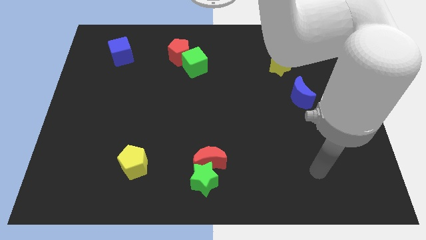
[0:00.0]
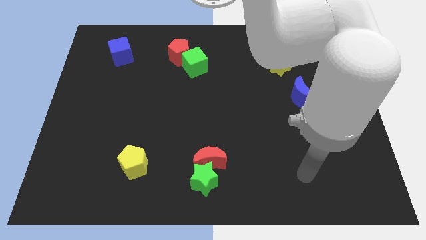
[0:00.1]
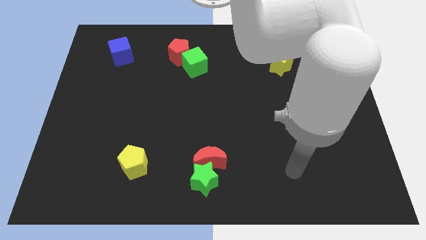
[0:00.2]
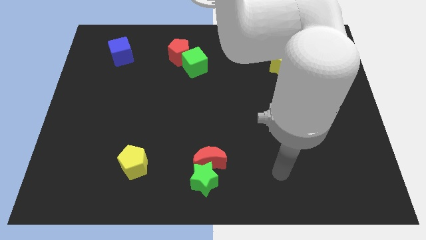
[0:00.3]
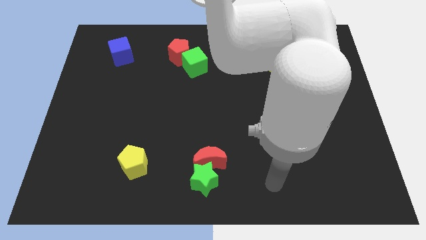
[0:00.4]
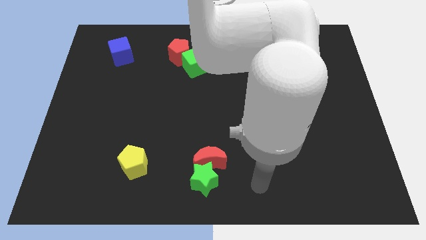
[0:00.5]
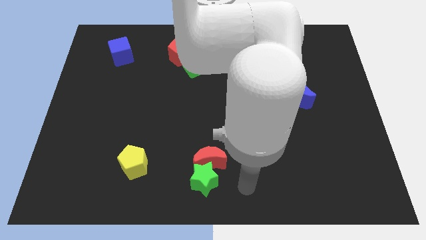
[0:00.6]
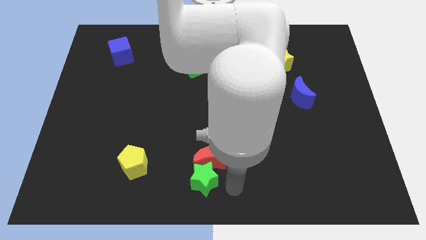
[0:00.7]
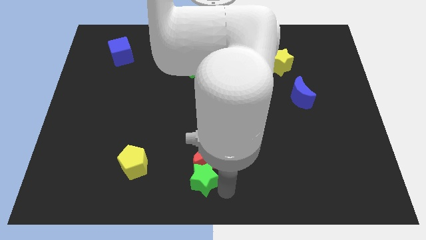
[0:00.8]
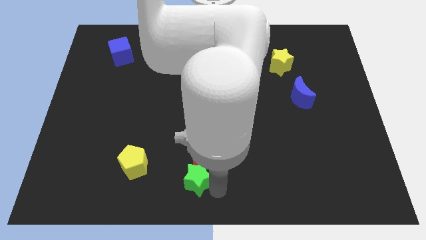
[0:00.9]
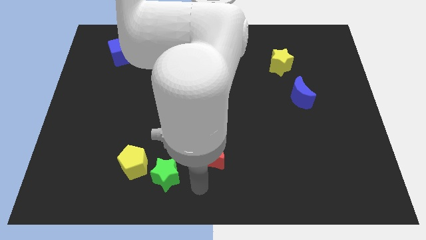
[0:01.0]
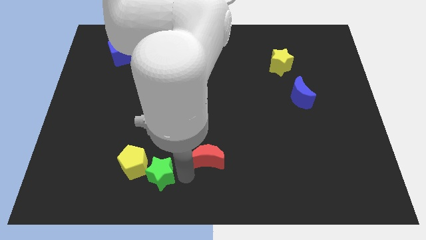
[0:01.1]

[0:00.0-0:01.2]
move the red moon away from the green star

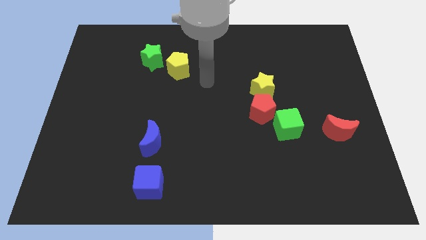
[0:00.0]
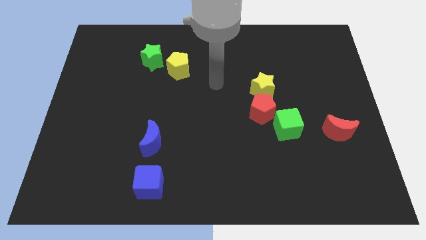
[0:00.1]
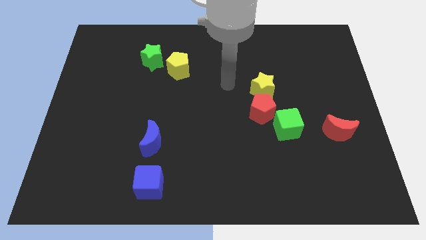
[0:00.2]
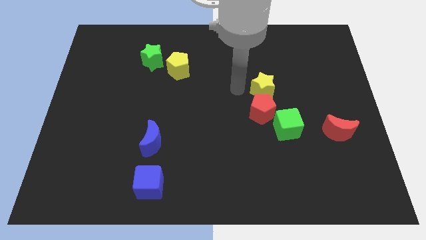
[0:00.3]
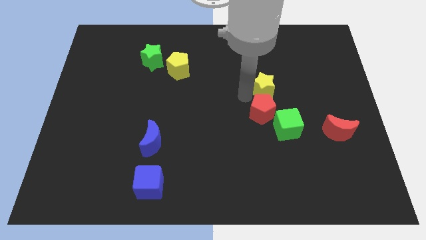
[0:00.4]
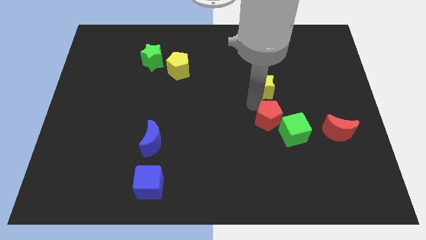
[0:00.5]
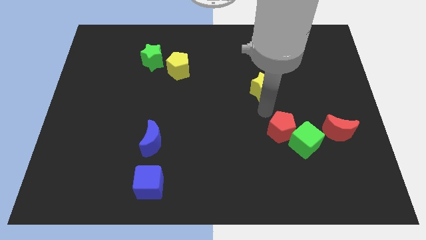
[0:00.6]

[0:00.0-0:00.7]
separate the yellow star from the red pentagon

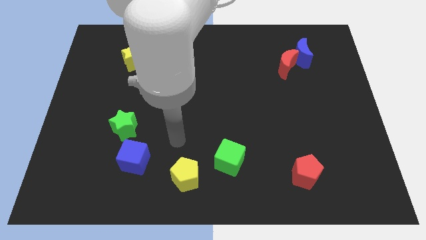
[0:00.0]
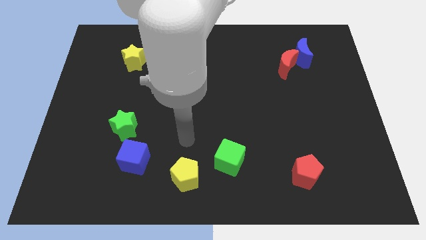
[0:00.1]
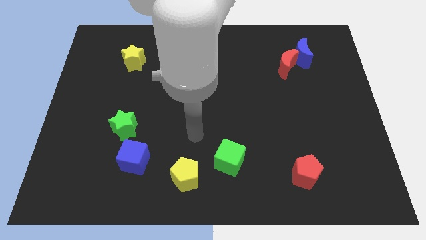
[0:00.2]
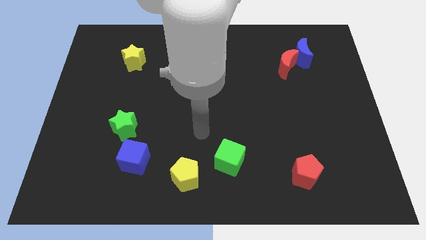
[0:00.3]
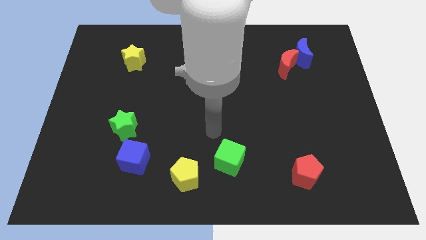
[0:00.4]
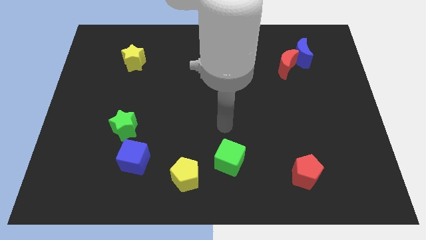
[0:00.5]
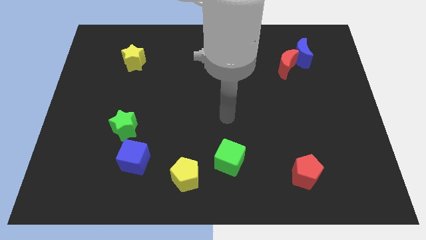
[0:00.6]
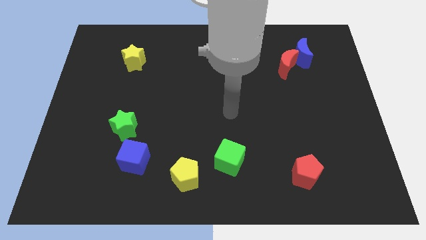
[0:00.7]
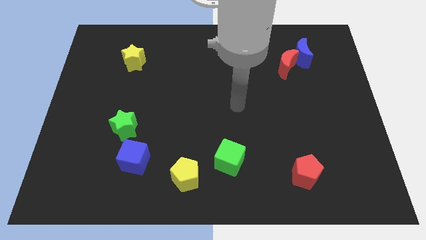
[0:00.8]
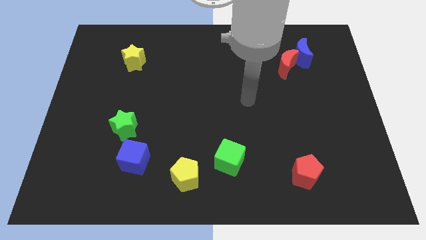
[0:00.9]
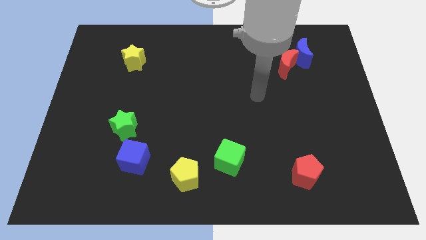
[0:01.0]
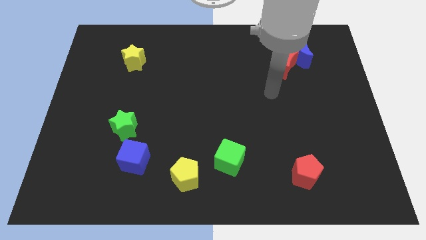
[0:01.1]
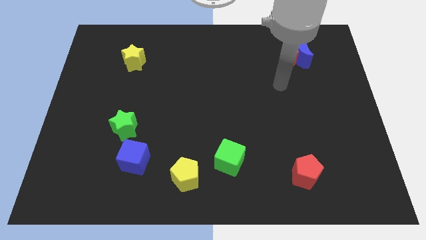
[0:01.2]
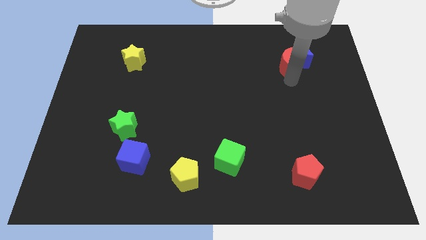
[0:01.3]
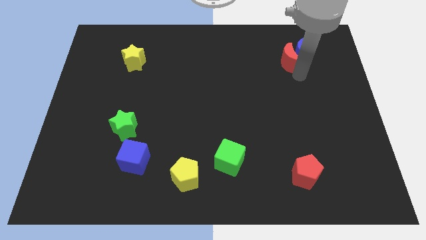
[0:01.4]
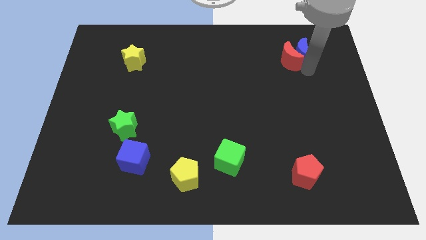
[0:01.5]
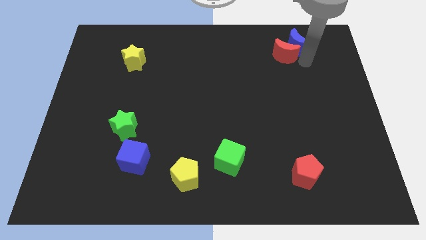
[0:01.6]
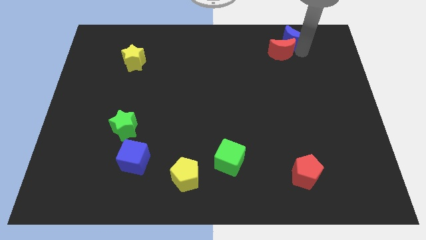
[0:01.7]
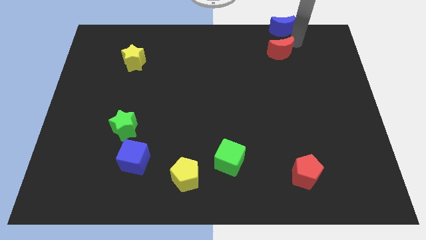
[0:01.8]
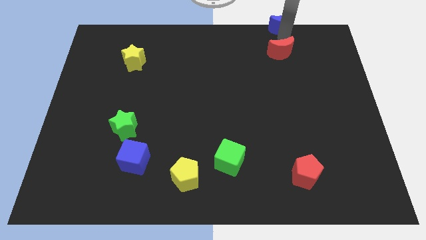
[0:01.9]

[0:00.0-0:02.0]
move the red moon away from the blue moon

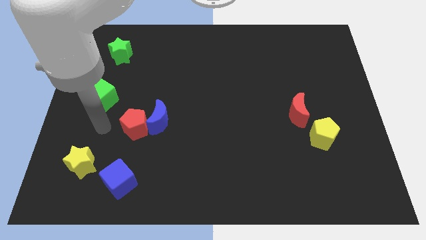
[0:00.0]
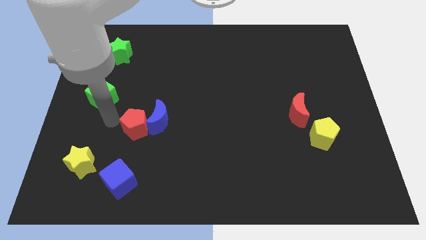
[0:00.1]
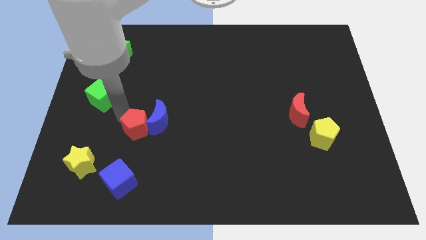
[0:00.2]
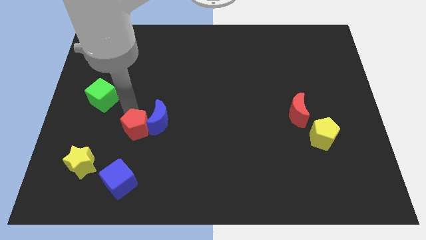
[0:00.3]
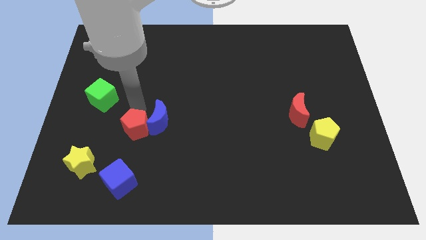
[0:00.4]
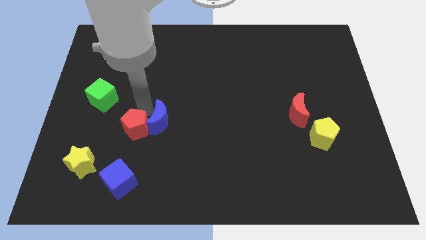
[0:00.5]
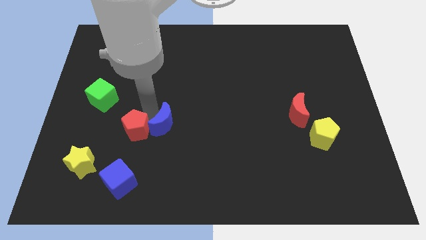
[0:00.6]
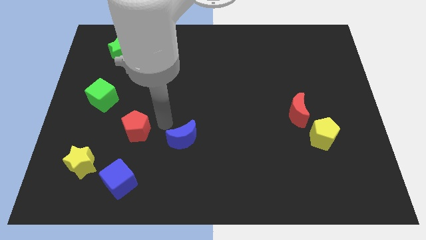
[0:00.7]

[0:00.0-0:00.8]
pull the red pentagon apart from the blue moon

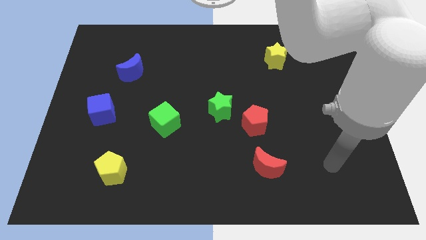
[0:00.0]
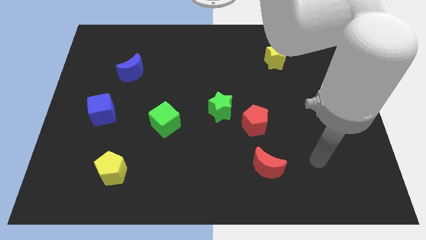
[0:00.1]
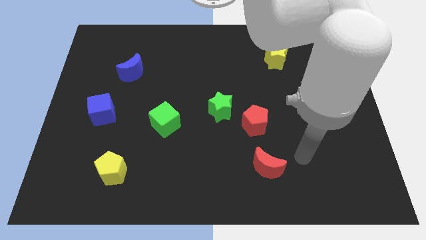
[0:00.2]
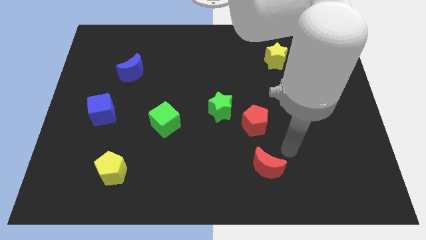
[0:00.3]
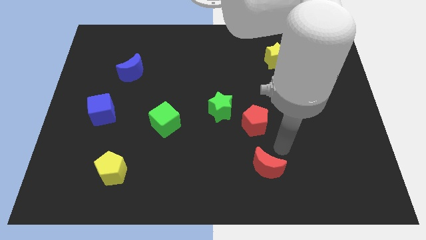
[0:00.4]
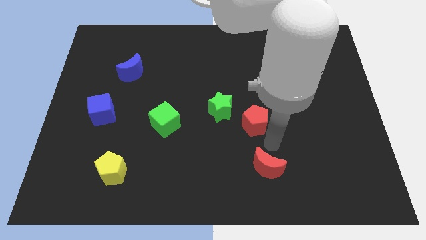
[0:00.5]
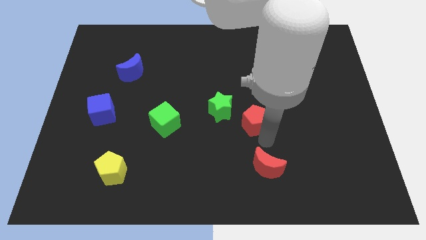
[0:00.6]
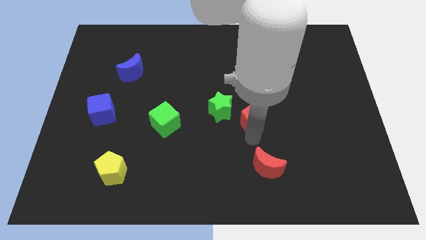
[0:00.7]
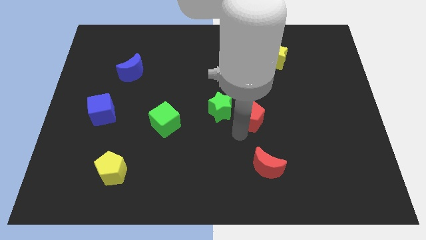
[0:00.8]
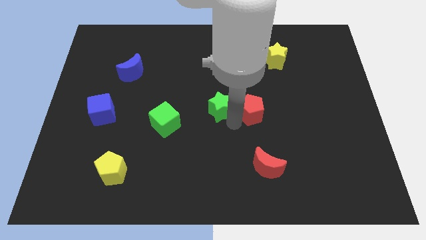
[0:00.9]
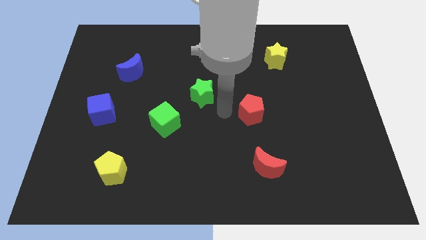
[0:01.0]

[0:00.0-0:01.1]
separate the red pentagon from the green star

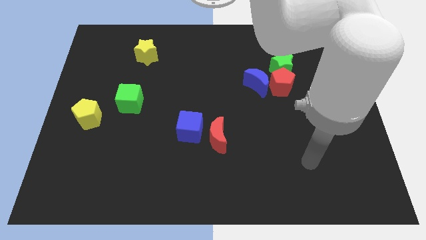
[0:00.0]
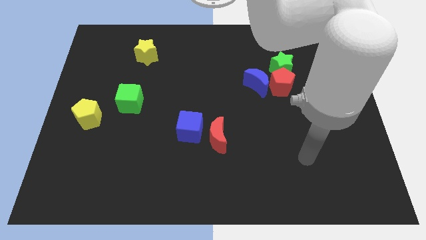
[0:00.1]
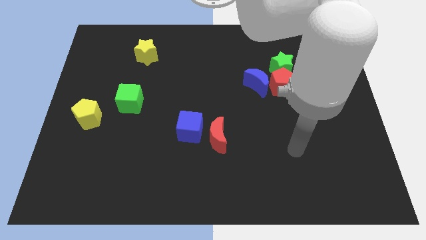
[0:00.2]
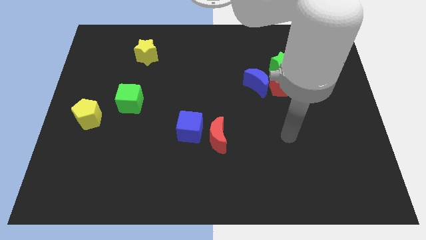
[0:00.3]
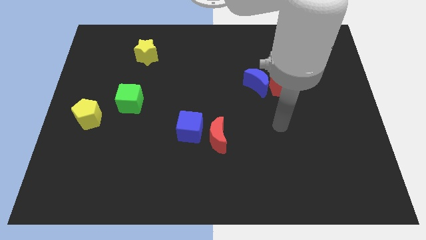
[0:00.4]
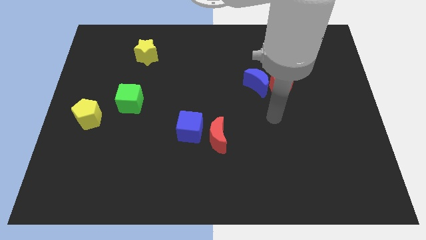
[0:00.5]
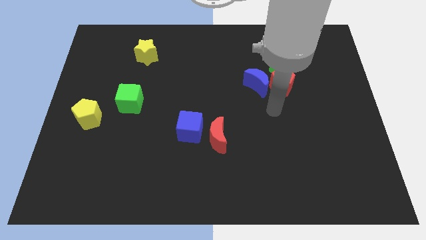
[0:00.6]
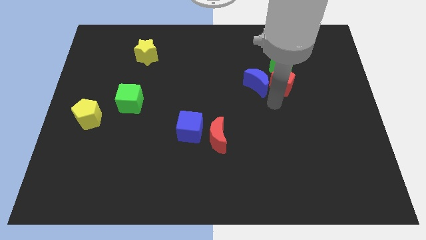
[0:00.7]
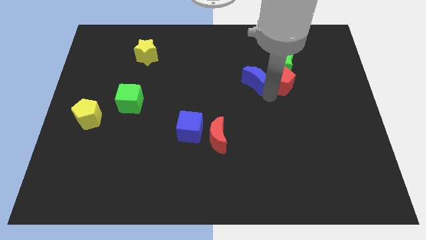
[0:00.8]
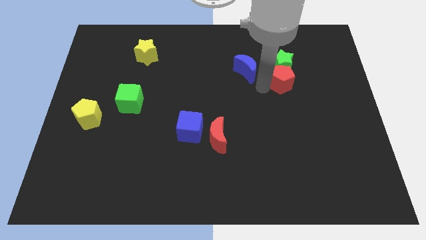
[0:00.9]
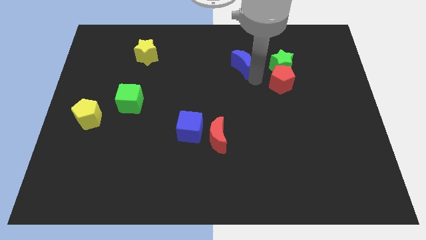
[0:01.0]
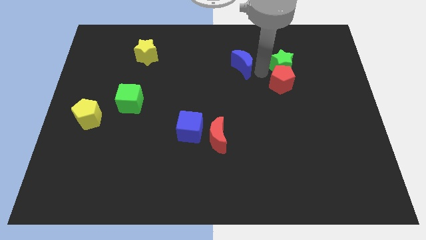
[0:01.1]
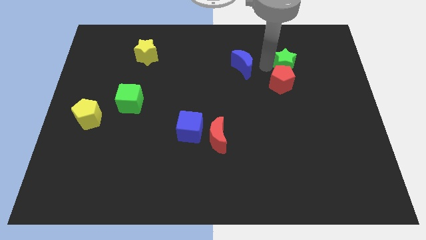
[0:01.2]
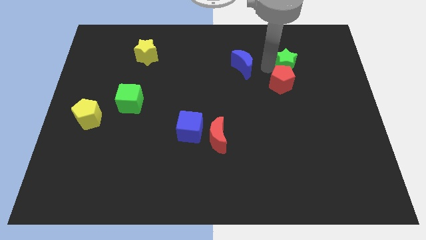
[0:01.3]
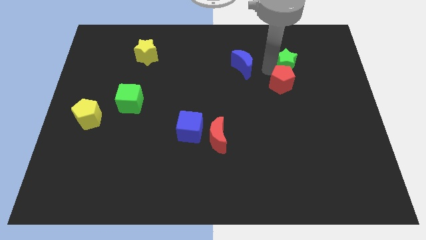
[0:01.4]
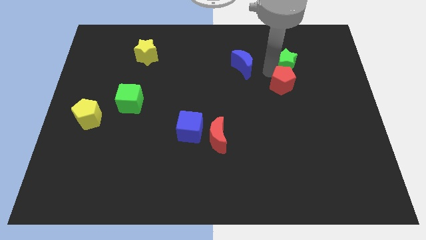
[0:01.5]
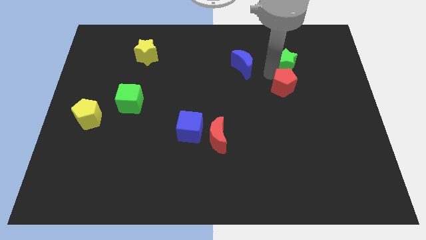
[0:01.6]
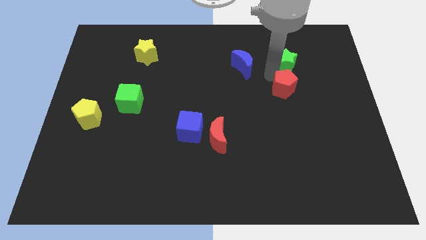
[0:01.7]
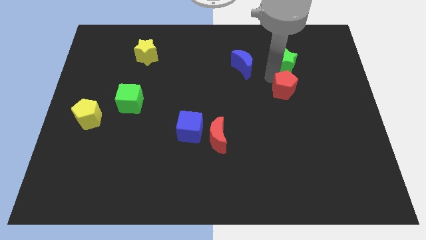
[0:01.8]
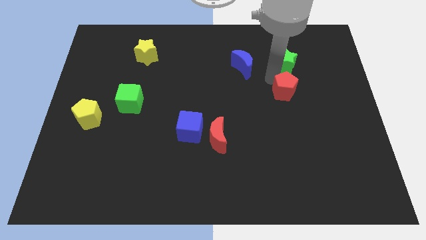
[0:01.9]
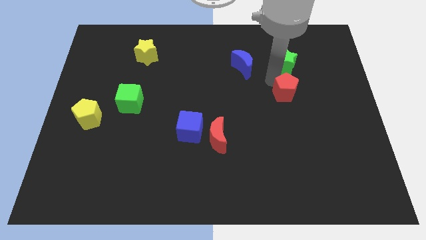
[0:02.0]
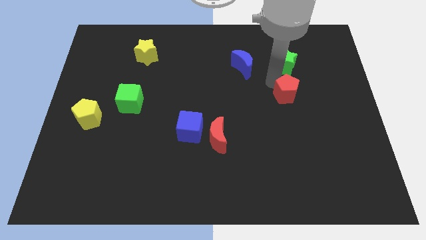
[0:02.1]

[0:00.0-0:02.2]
pull the red pentagon apart from the blue moon and green star

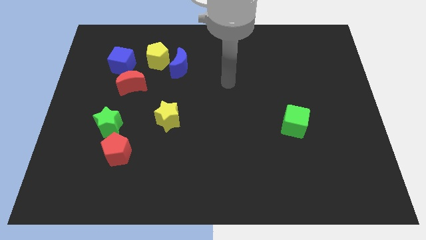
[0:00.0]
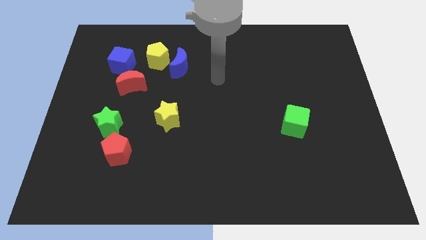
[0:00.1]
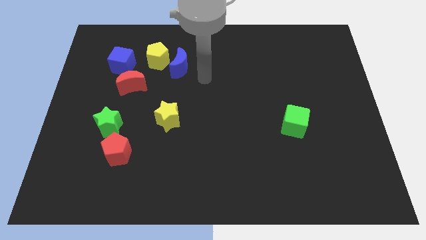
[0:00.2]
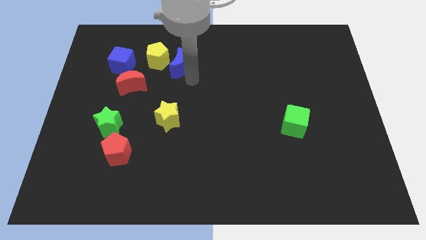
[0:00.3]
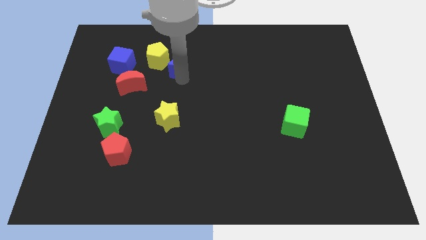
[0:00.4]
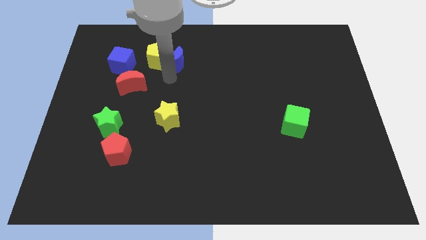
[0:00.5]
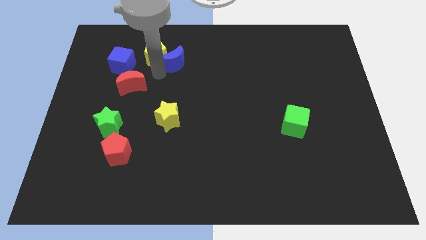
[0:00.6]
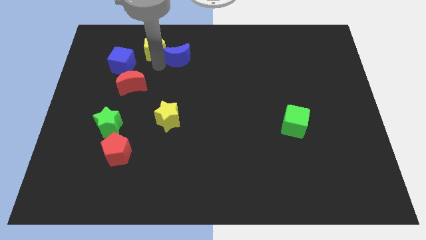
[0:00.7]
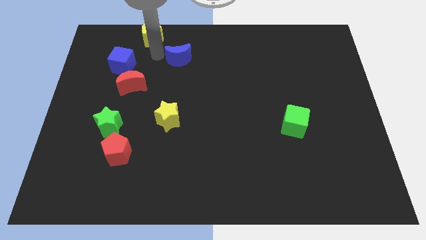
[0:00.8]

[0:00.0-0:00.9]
move the blue moon away from the yellow pentagon

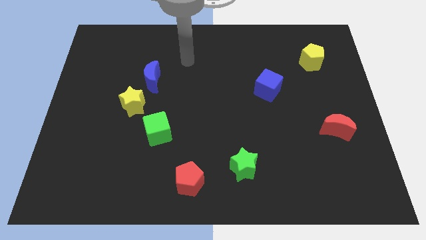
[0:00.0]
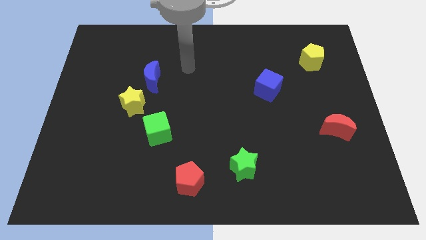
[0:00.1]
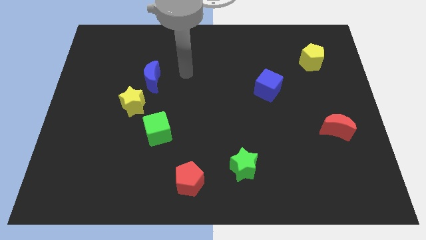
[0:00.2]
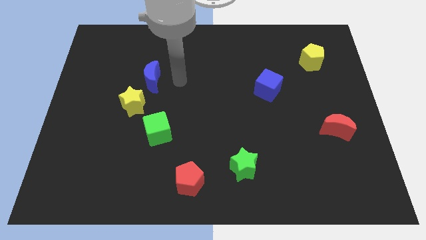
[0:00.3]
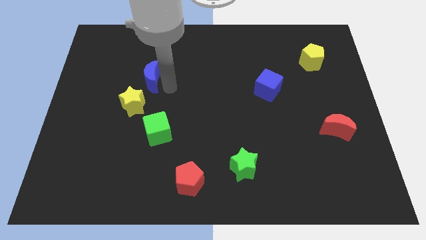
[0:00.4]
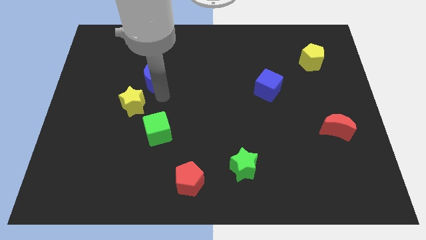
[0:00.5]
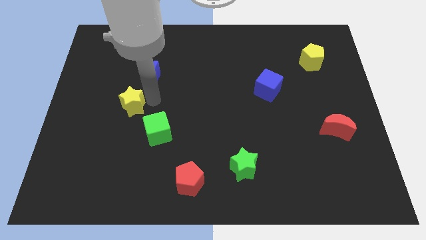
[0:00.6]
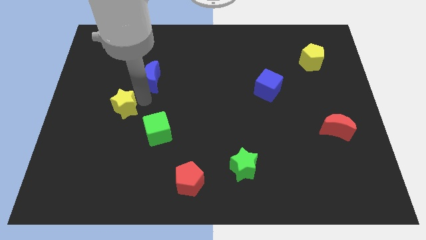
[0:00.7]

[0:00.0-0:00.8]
move the blue moon away from the yellow star
